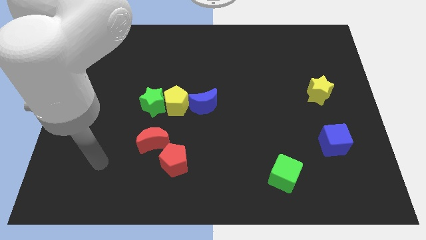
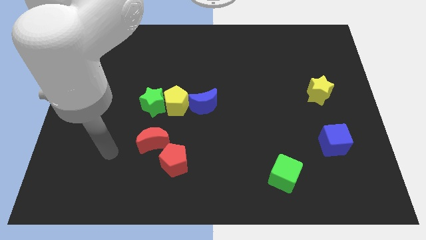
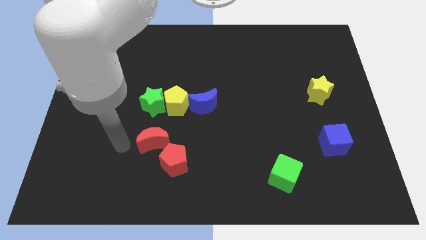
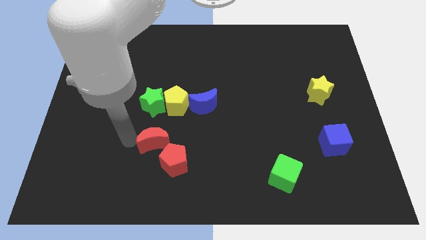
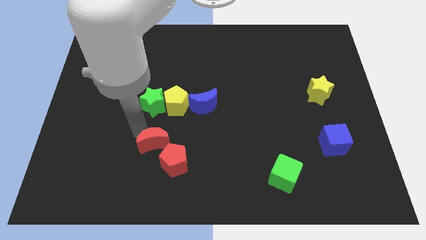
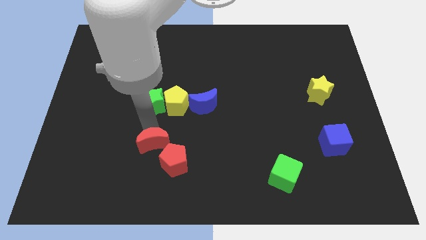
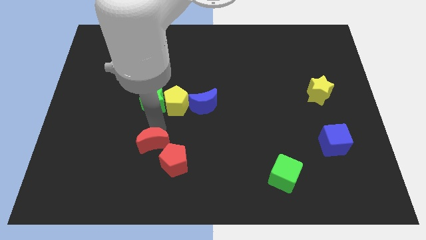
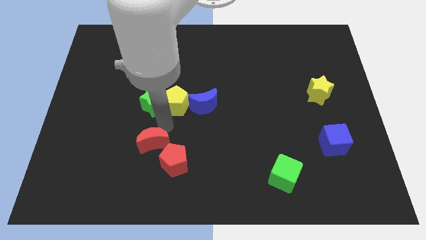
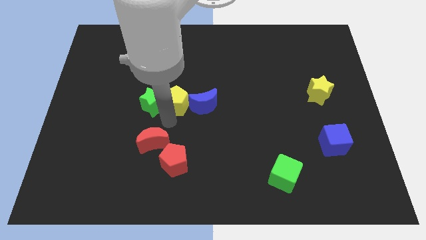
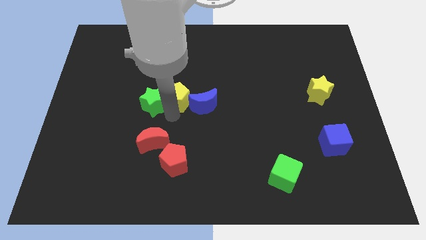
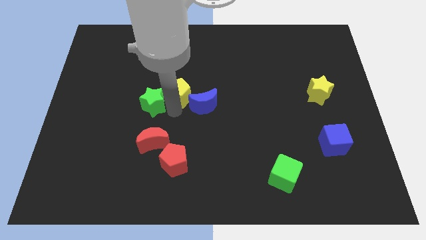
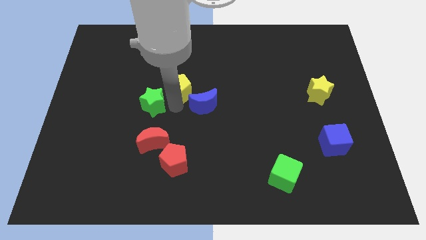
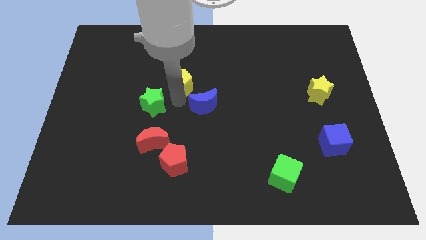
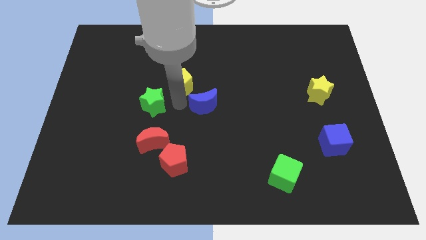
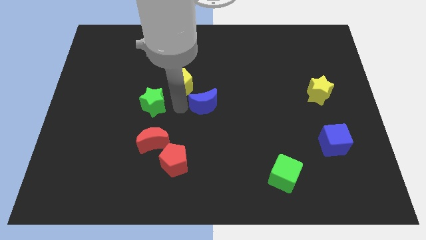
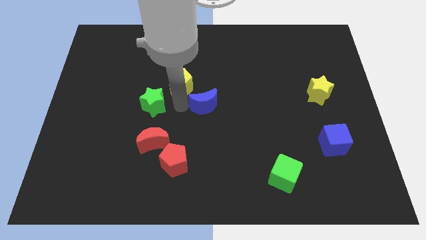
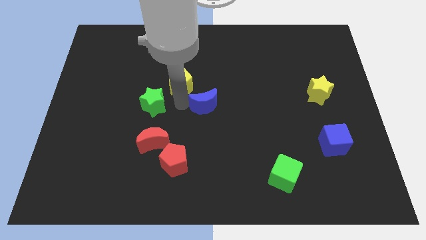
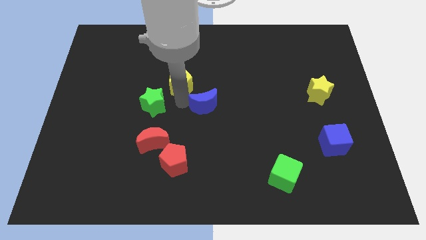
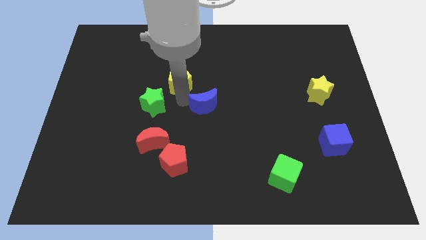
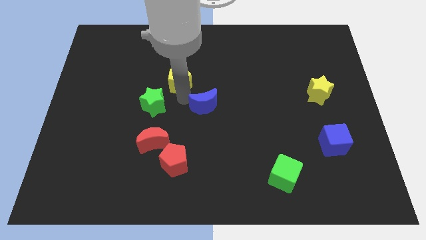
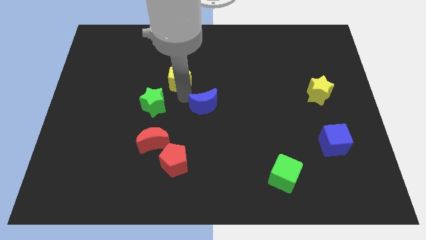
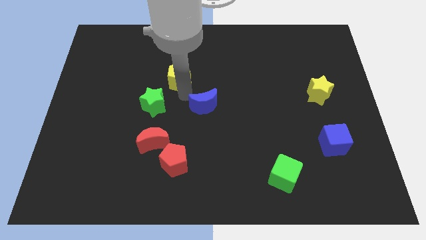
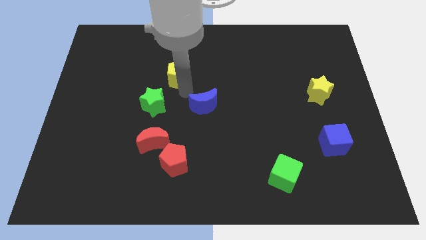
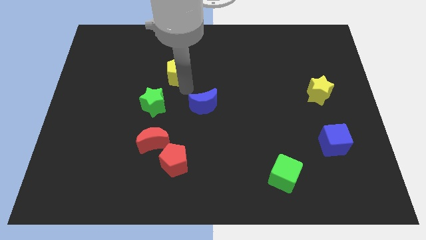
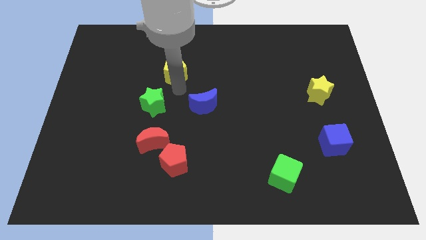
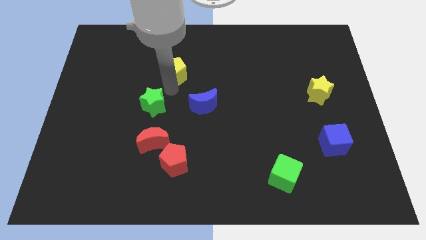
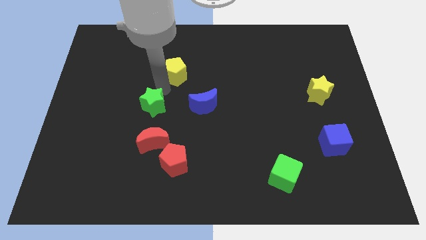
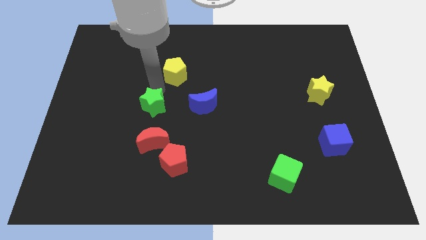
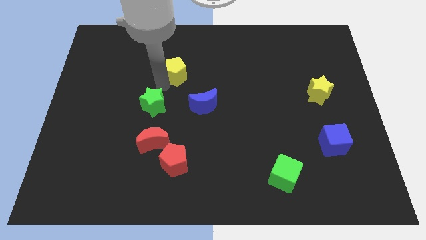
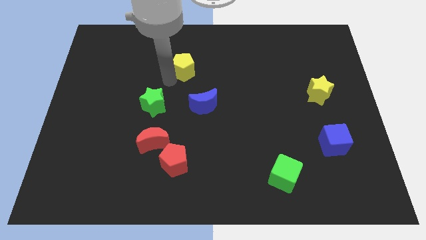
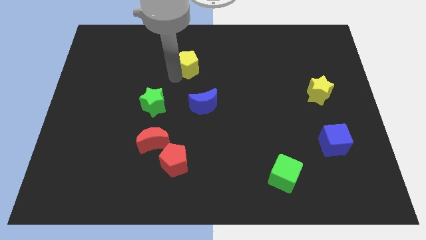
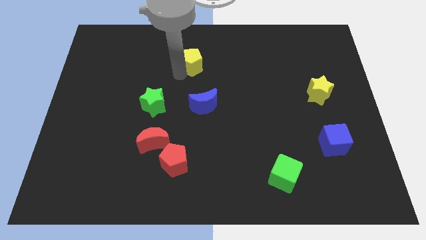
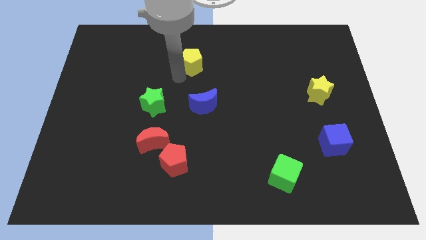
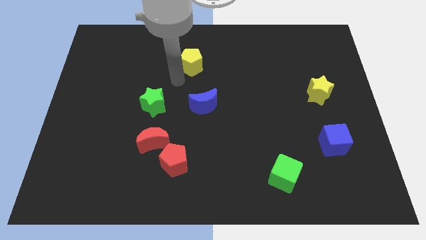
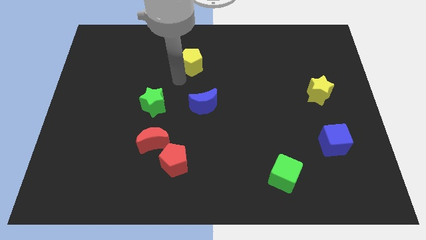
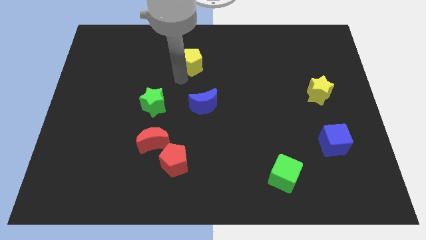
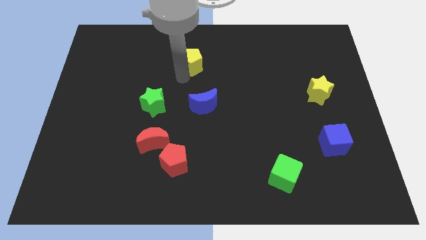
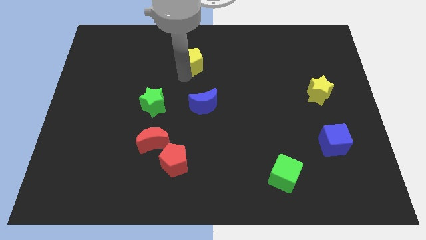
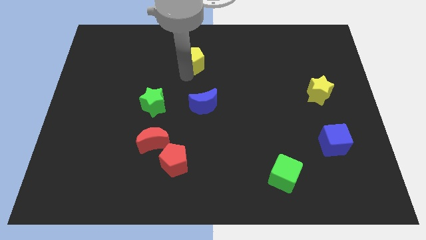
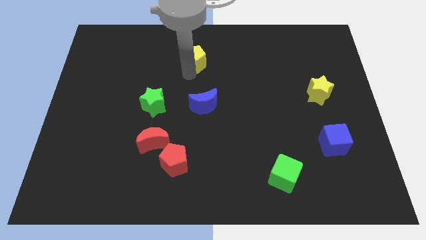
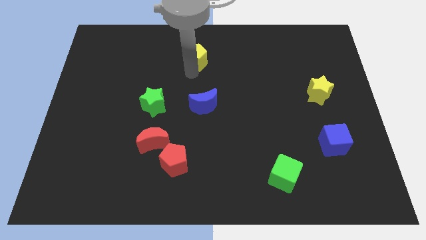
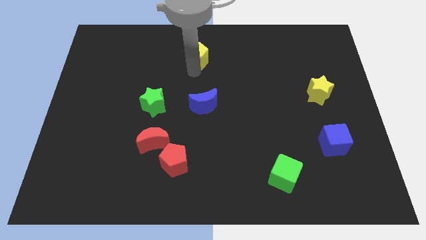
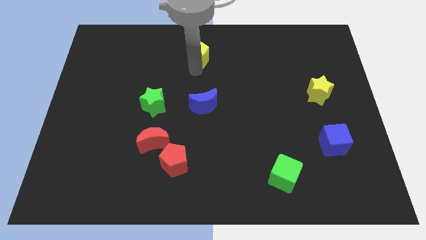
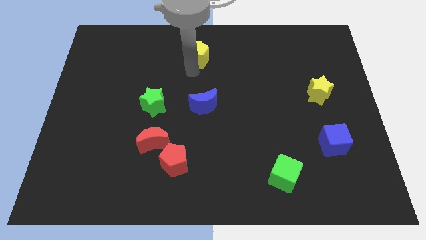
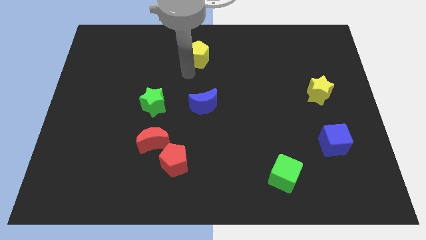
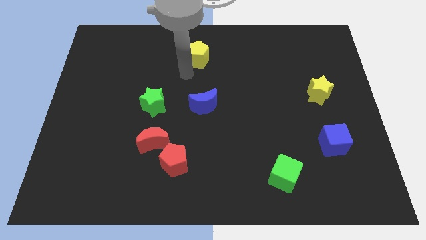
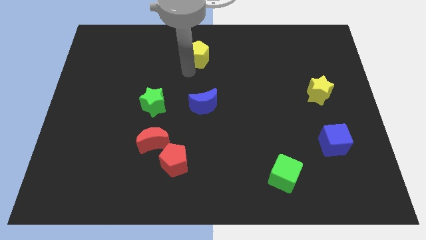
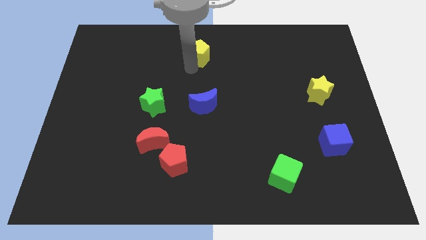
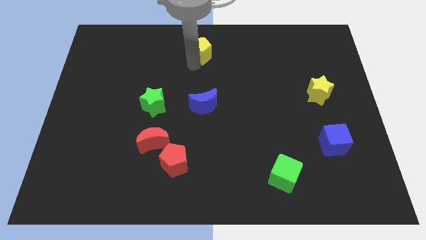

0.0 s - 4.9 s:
move the yellow pentagon to the top side

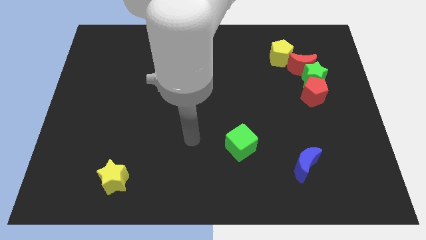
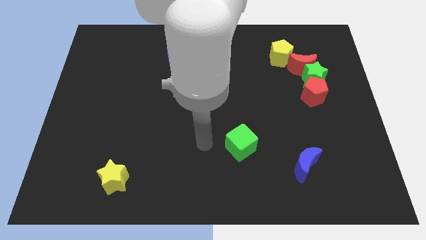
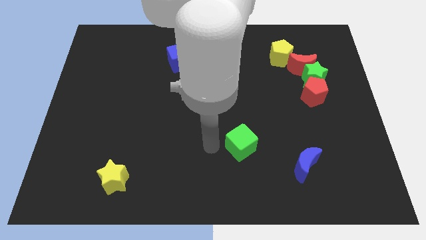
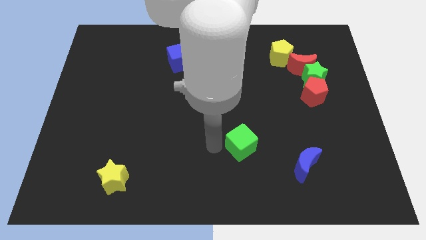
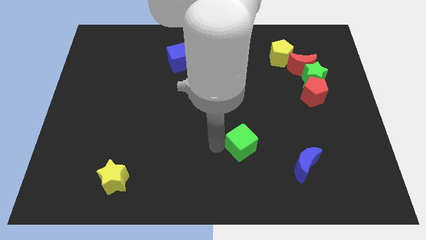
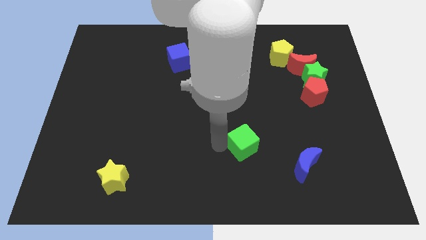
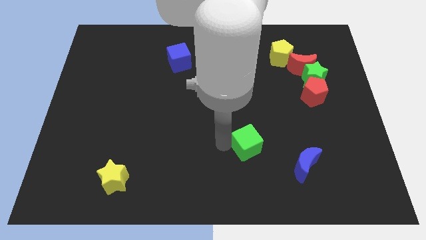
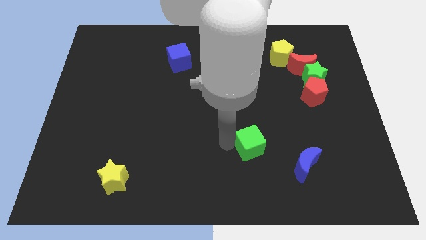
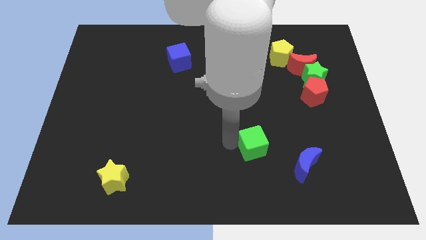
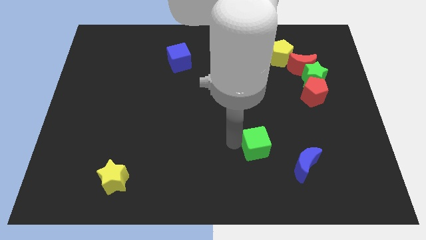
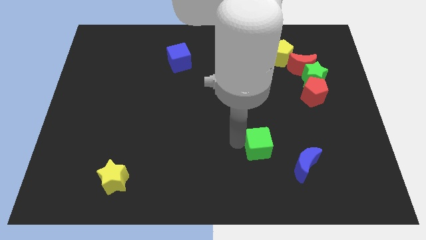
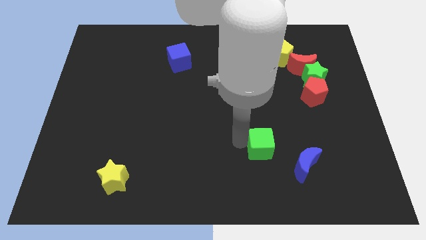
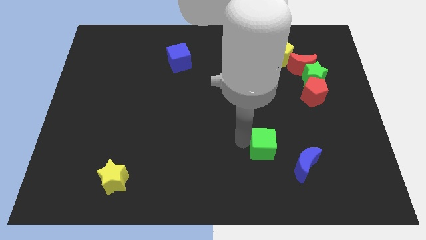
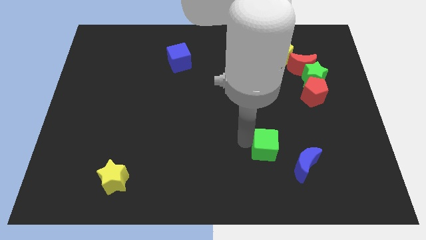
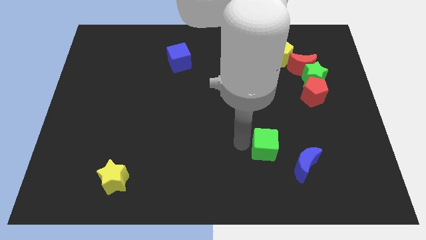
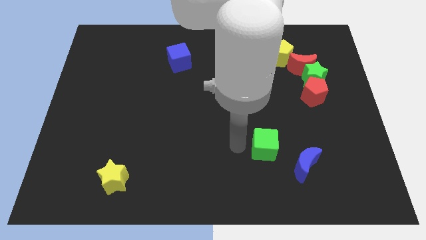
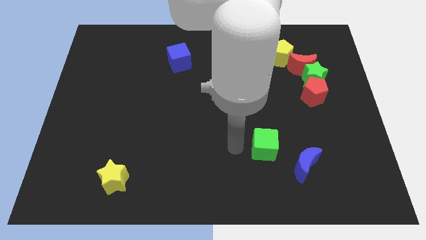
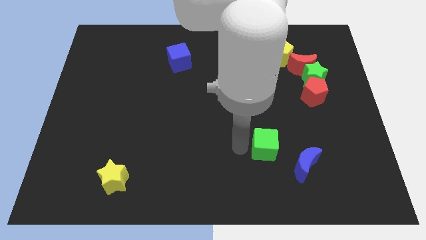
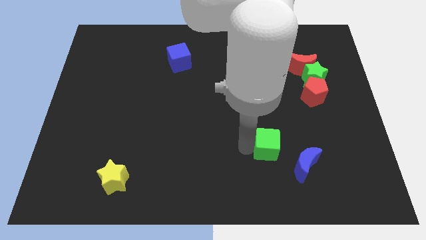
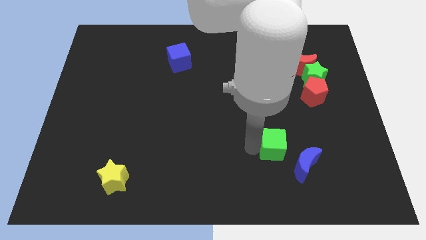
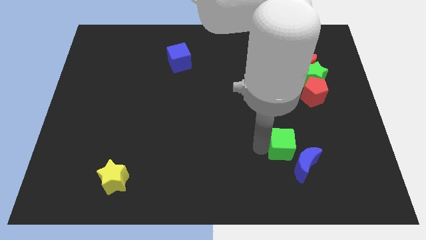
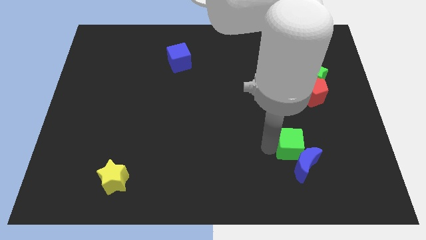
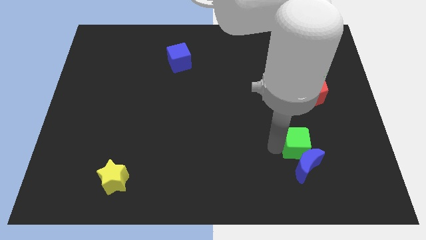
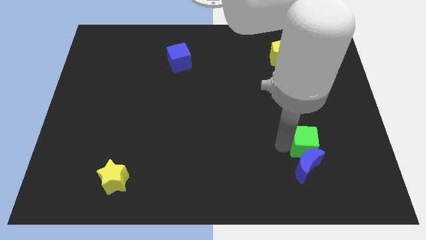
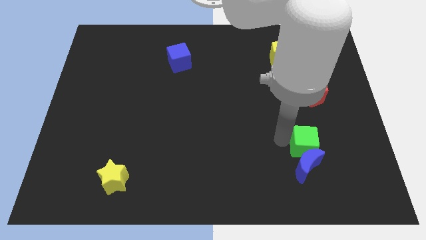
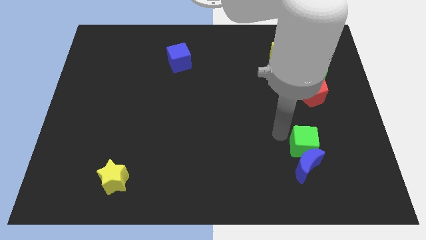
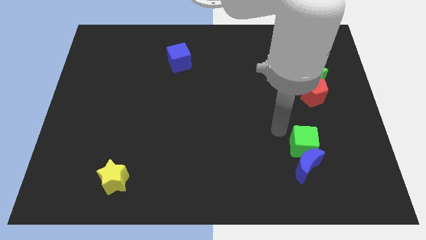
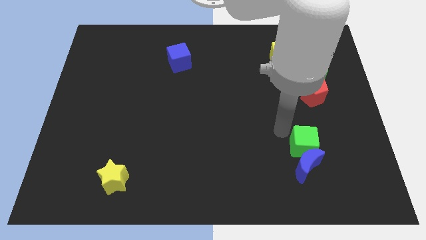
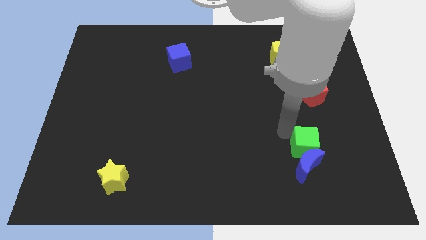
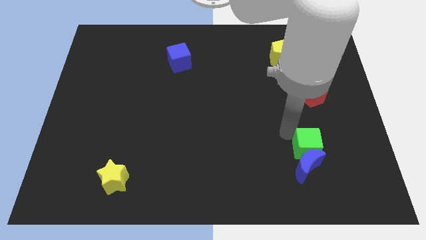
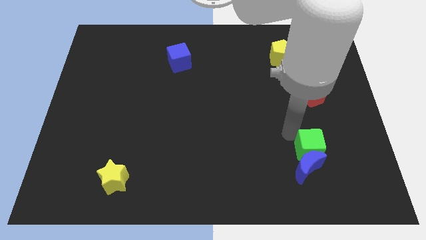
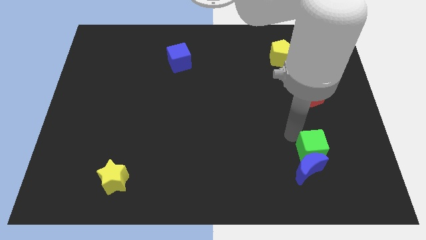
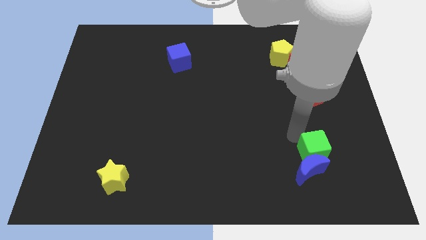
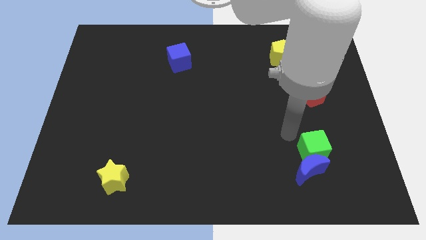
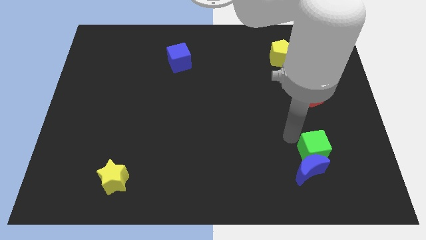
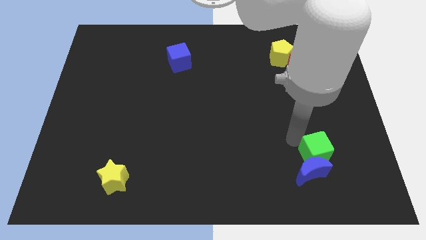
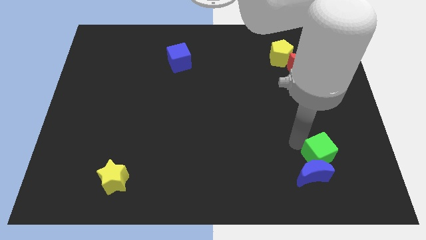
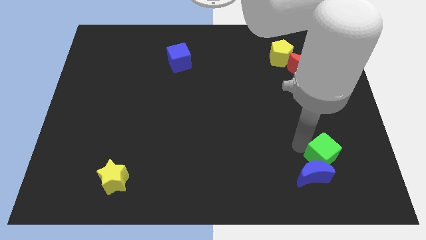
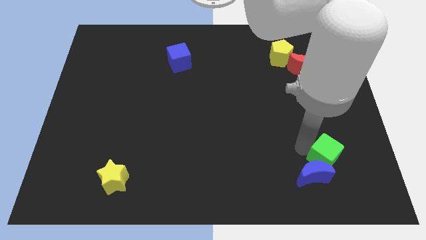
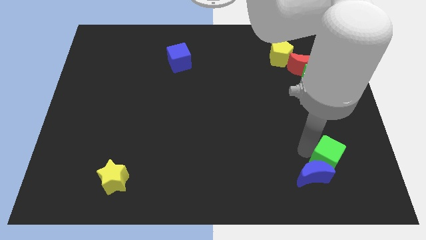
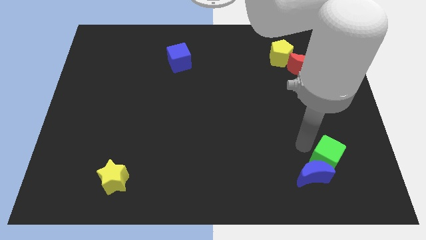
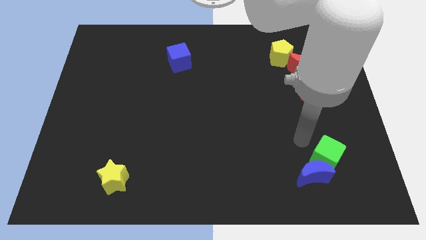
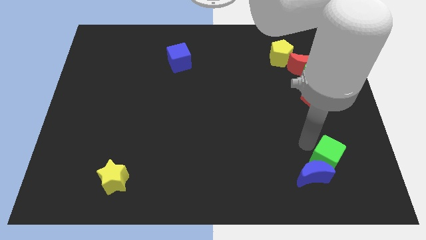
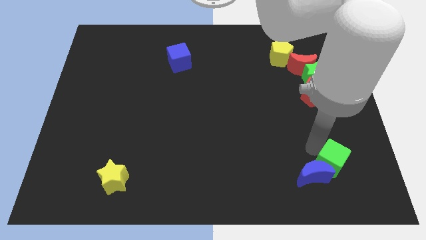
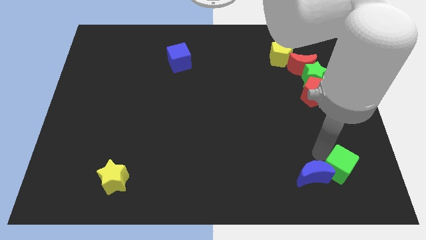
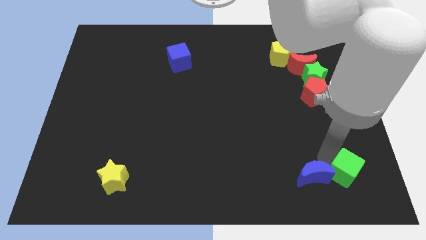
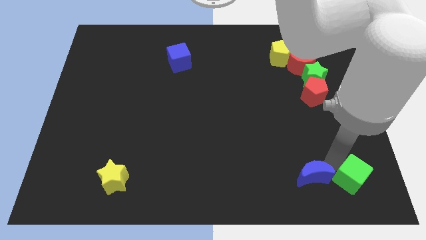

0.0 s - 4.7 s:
move the green cube to the lower right corner
